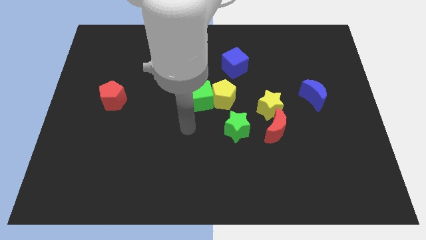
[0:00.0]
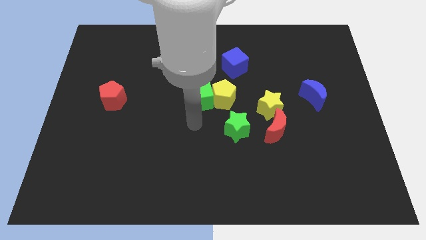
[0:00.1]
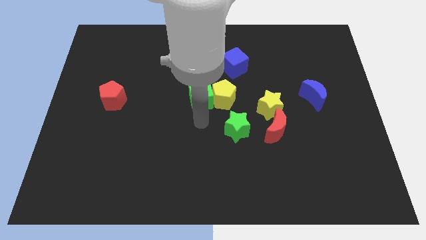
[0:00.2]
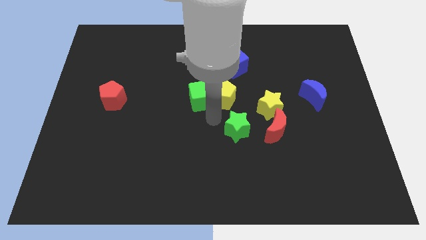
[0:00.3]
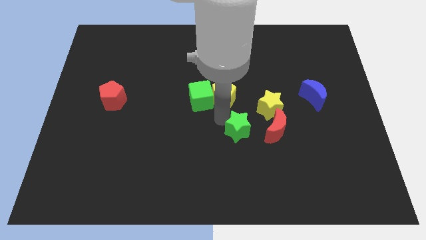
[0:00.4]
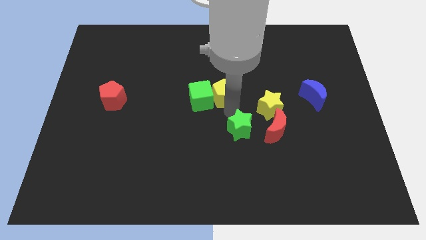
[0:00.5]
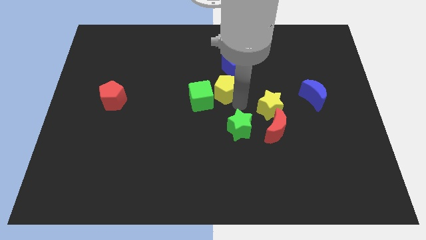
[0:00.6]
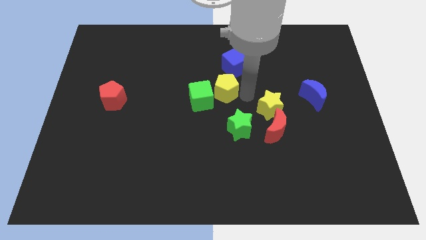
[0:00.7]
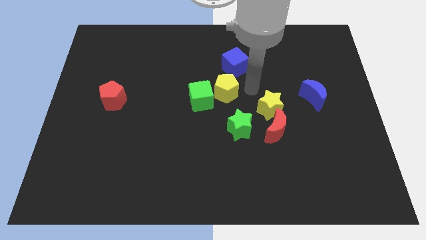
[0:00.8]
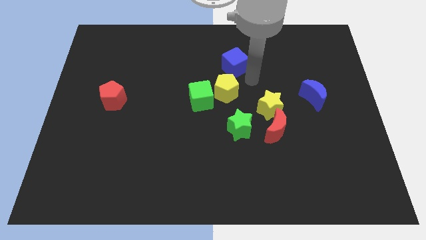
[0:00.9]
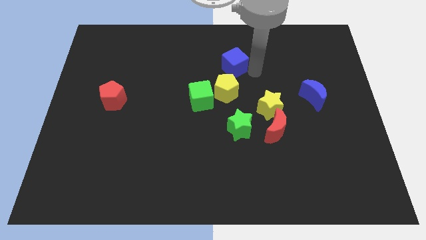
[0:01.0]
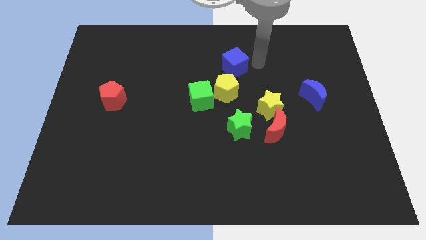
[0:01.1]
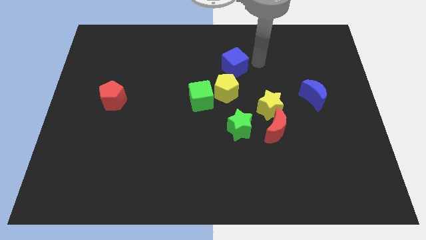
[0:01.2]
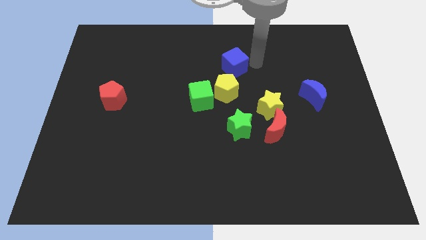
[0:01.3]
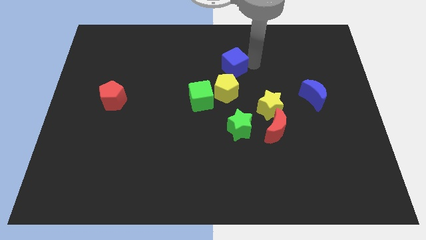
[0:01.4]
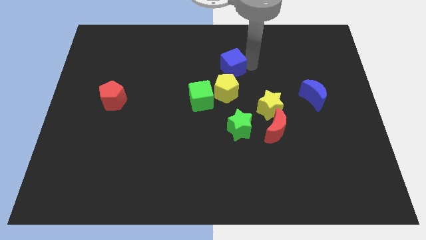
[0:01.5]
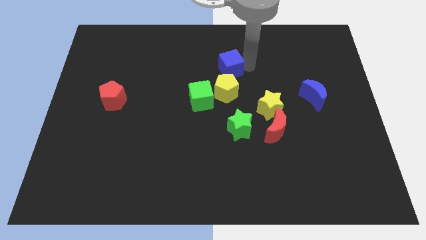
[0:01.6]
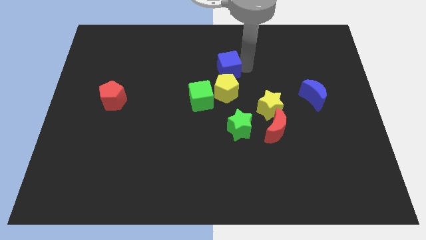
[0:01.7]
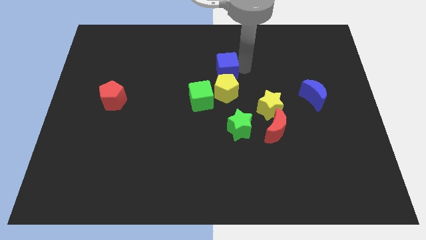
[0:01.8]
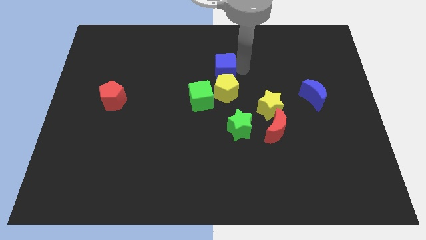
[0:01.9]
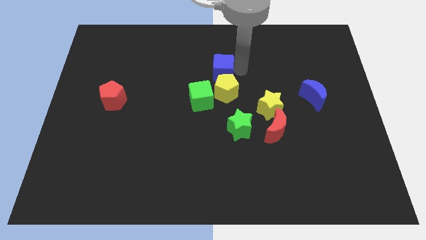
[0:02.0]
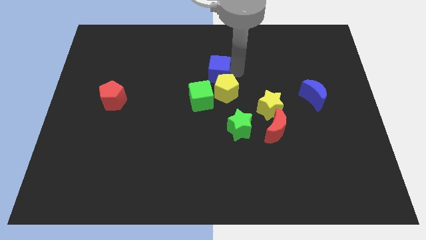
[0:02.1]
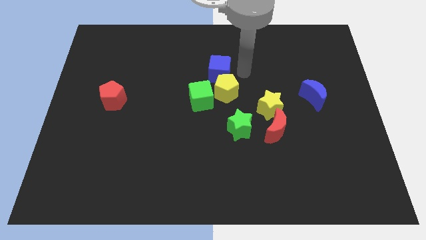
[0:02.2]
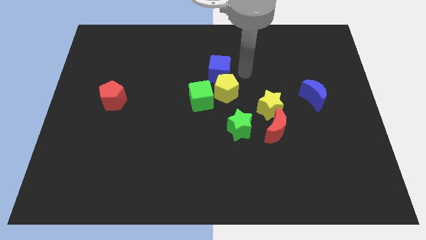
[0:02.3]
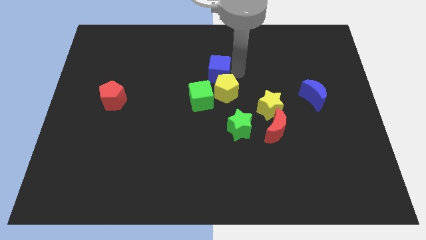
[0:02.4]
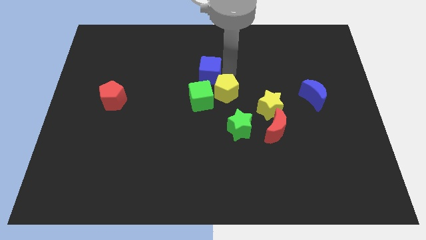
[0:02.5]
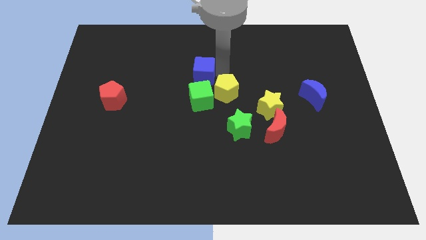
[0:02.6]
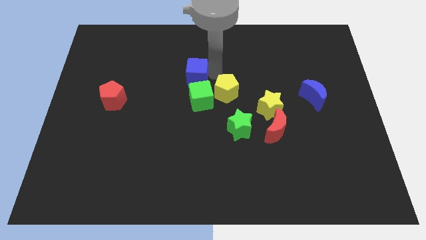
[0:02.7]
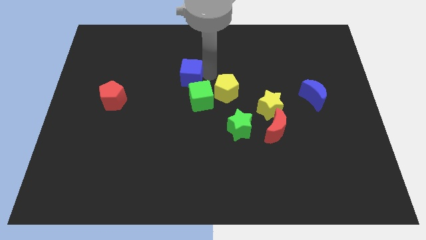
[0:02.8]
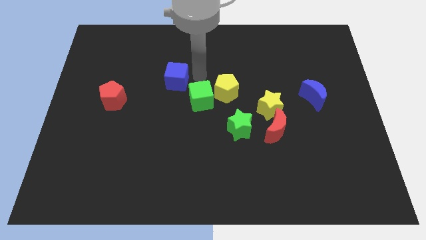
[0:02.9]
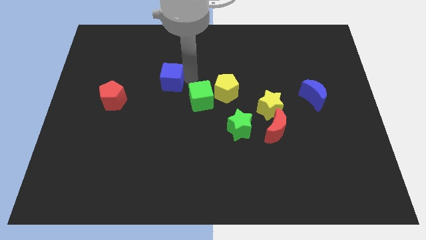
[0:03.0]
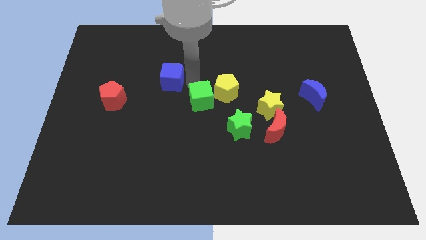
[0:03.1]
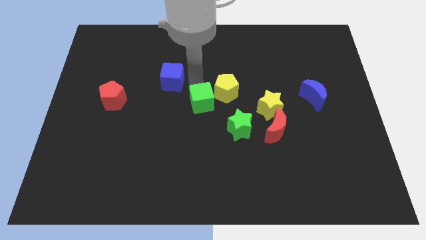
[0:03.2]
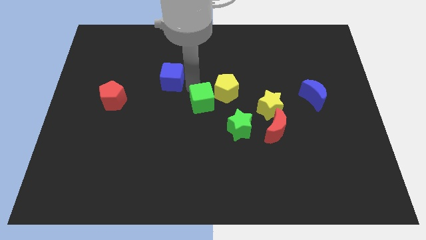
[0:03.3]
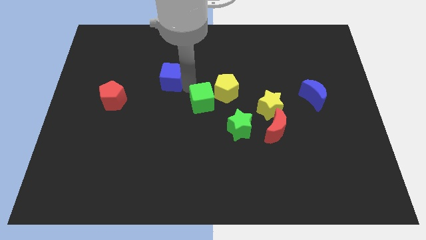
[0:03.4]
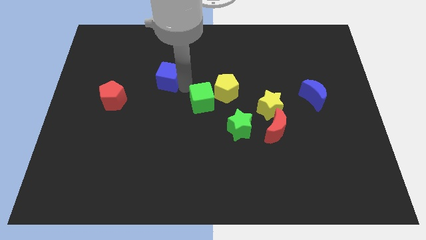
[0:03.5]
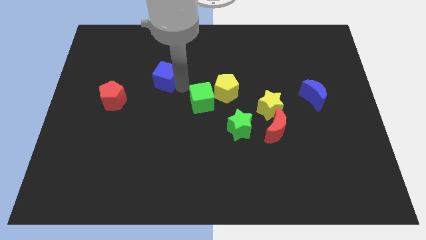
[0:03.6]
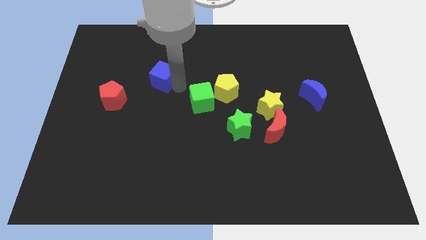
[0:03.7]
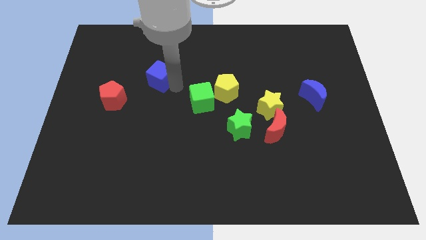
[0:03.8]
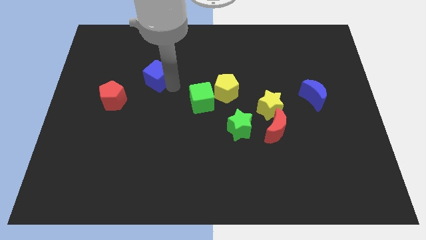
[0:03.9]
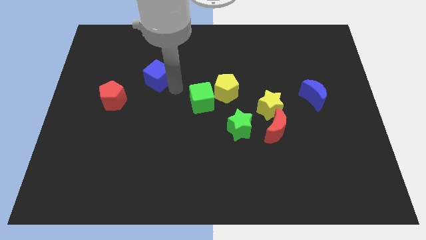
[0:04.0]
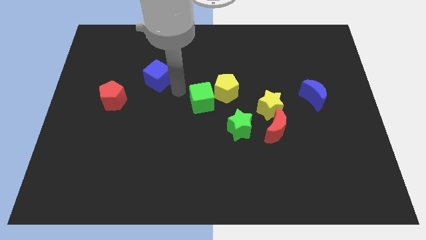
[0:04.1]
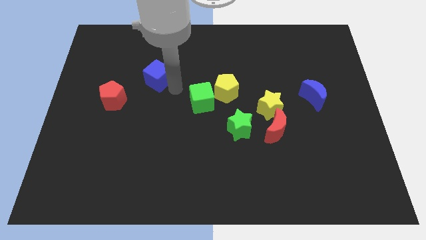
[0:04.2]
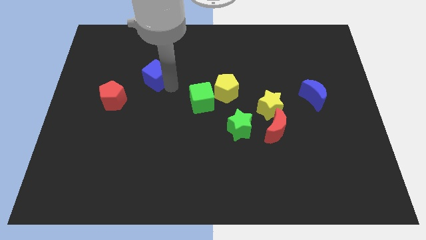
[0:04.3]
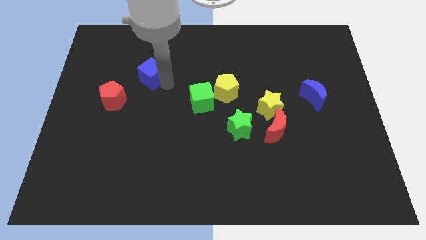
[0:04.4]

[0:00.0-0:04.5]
move the blue cube left

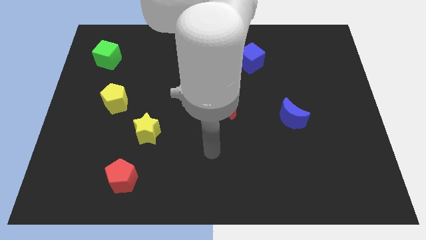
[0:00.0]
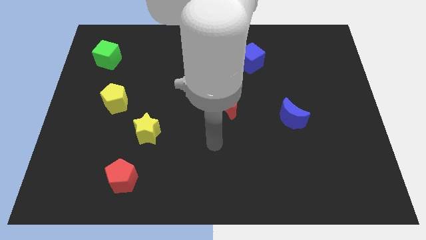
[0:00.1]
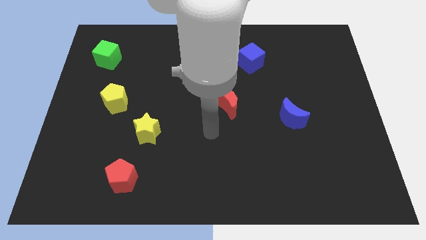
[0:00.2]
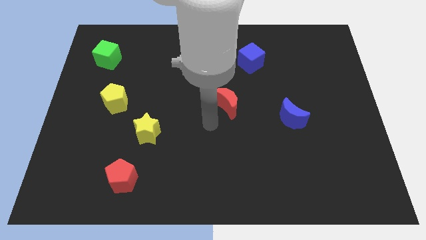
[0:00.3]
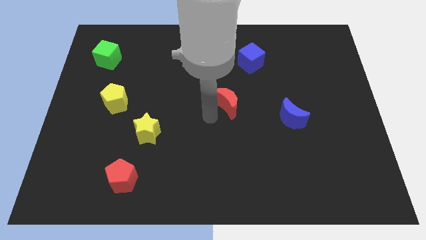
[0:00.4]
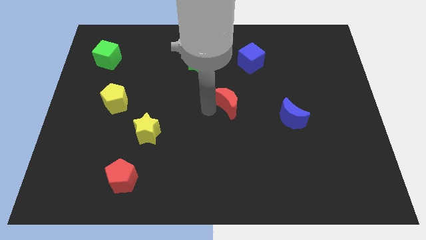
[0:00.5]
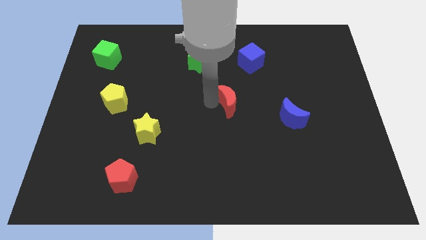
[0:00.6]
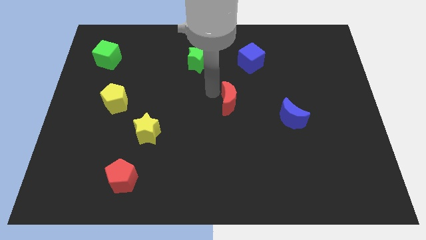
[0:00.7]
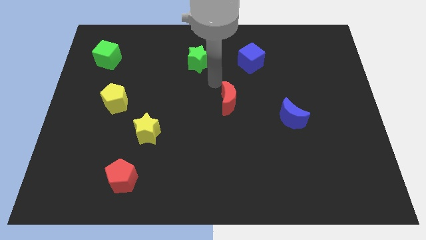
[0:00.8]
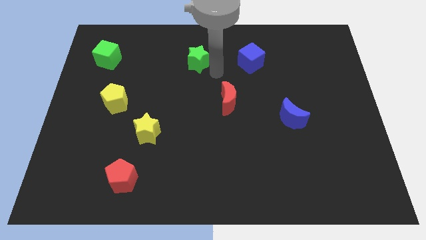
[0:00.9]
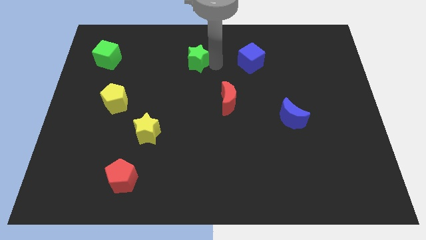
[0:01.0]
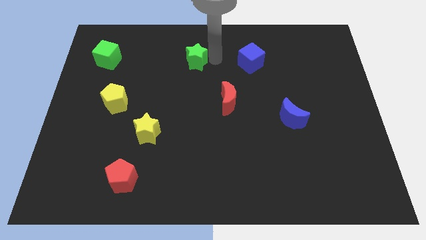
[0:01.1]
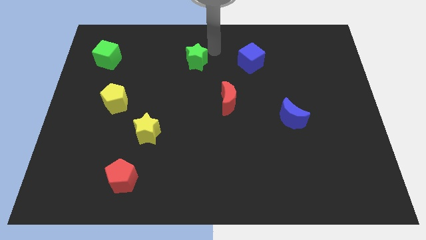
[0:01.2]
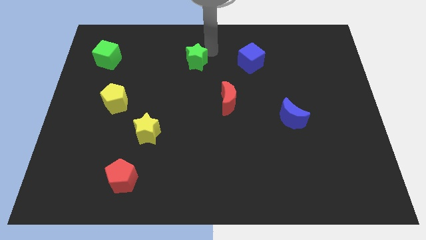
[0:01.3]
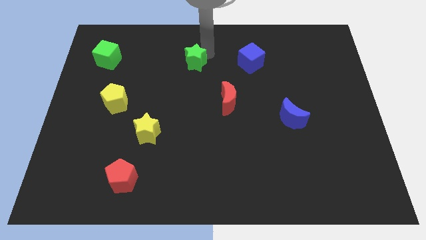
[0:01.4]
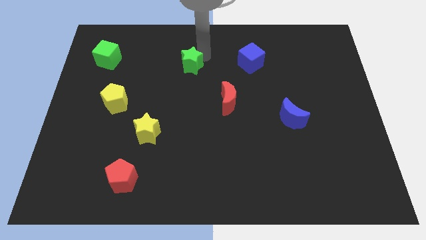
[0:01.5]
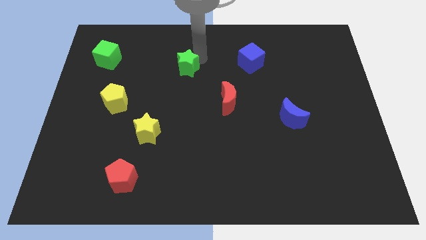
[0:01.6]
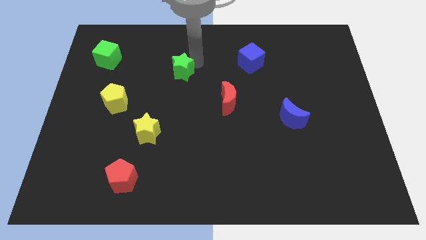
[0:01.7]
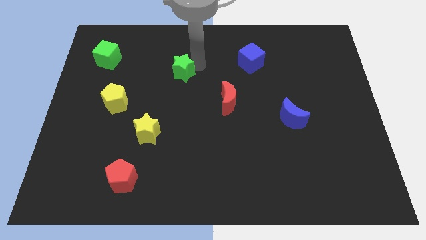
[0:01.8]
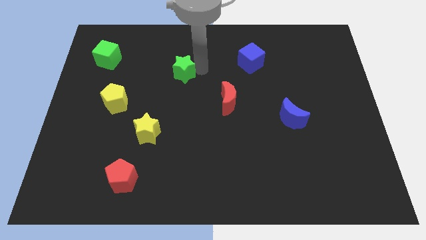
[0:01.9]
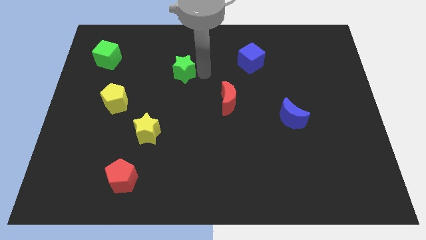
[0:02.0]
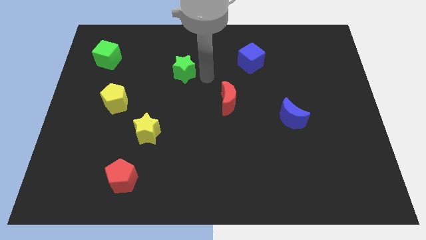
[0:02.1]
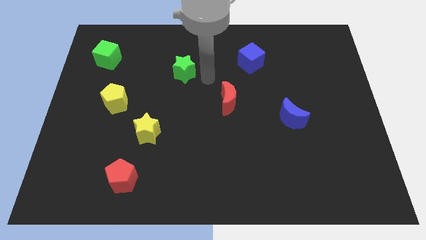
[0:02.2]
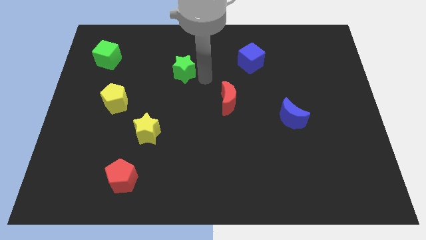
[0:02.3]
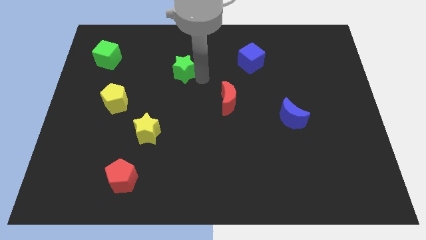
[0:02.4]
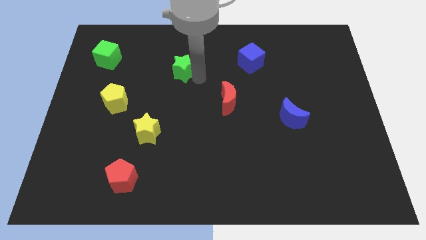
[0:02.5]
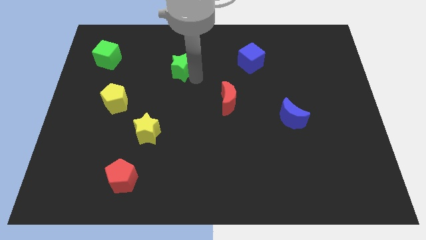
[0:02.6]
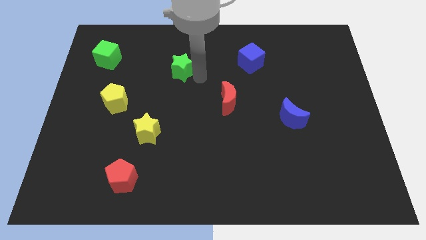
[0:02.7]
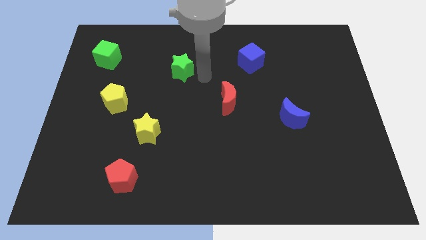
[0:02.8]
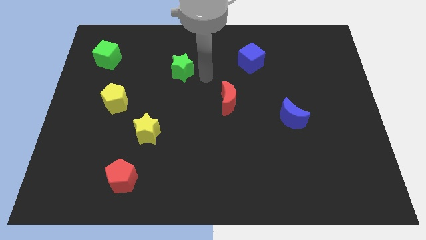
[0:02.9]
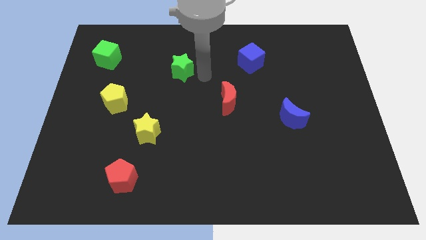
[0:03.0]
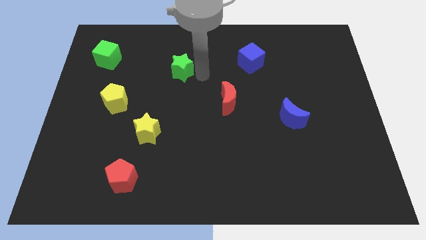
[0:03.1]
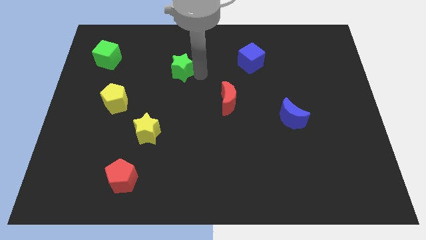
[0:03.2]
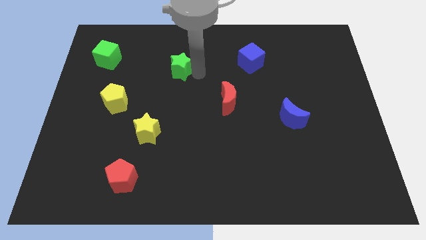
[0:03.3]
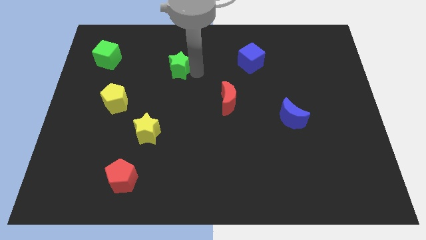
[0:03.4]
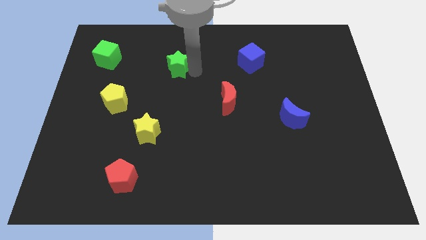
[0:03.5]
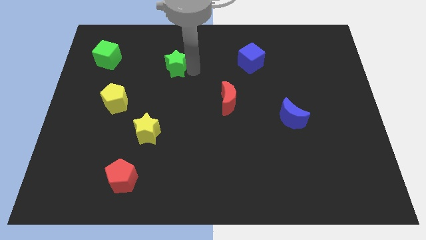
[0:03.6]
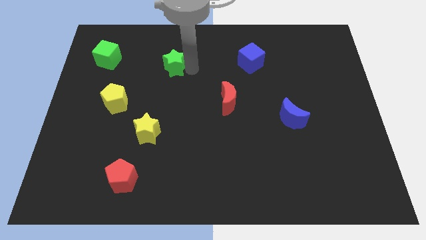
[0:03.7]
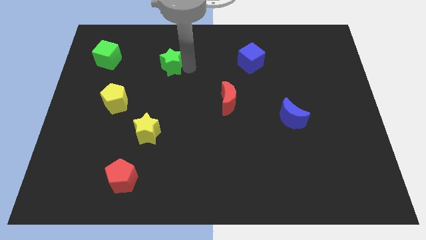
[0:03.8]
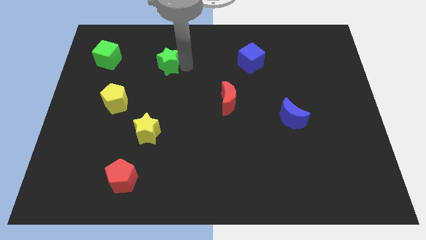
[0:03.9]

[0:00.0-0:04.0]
move the green star to the left a little
